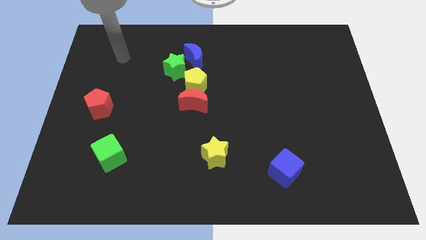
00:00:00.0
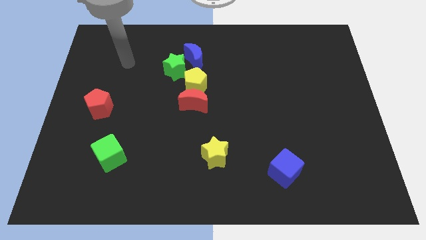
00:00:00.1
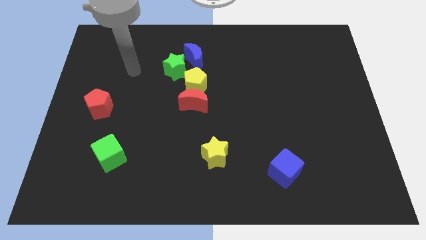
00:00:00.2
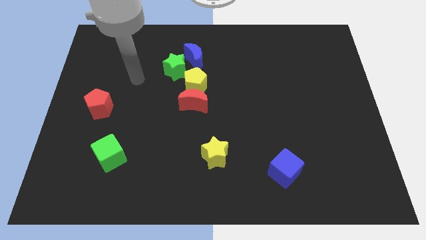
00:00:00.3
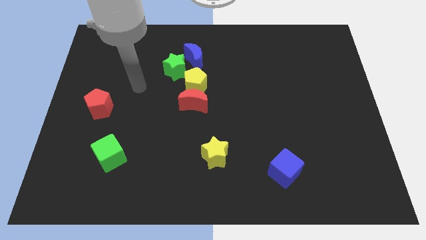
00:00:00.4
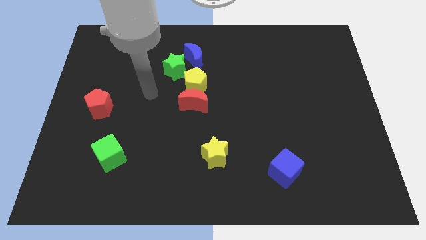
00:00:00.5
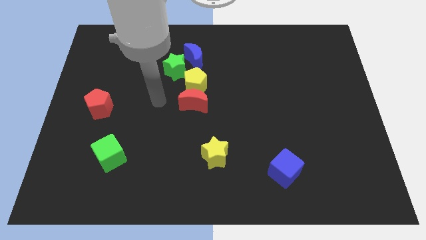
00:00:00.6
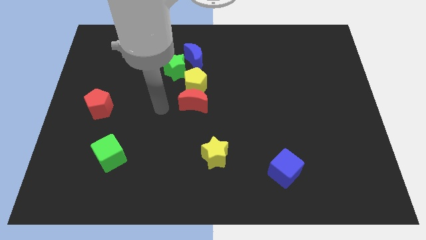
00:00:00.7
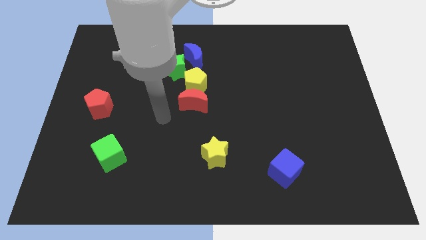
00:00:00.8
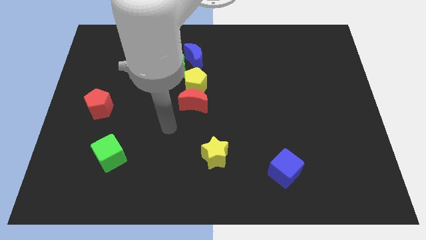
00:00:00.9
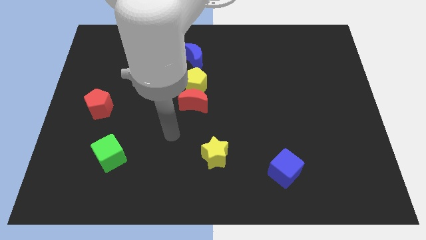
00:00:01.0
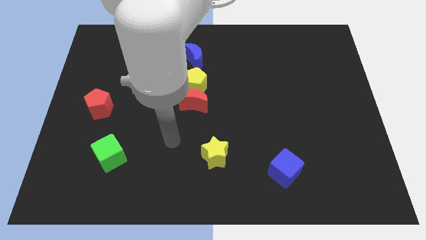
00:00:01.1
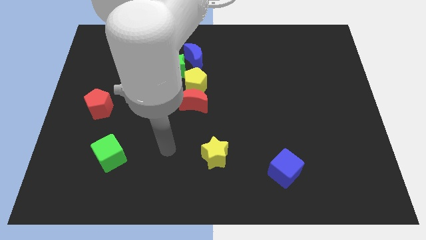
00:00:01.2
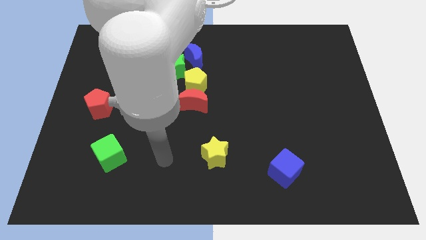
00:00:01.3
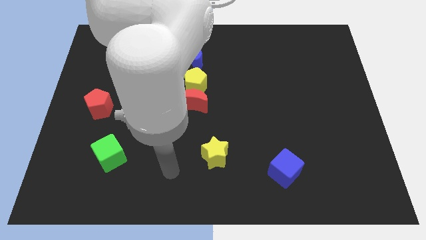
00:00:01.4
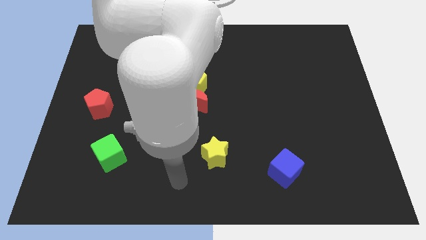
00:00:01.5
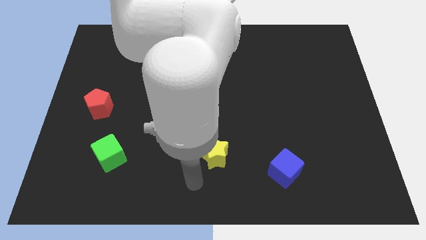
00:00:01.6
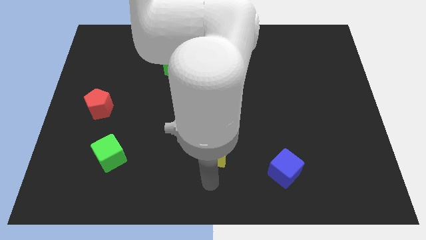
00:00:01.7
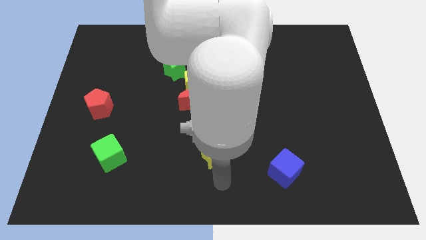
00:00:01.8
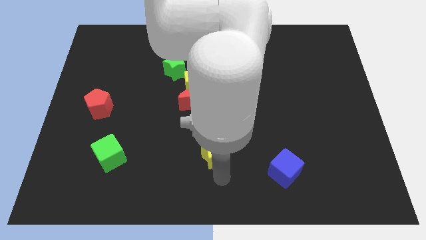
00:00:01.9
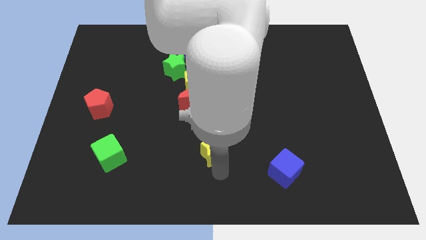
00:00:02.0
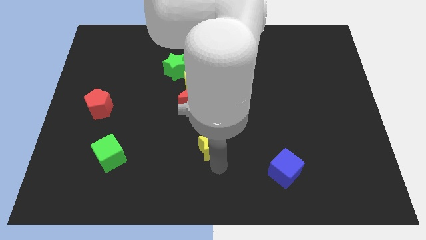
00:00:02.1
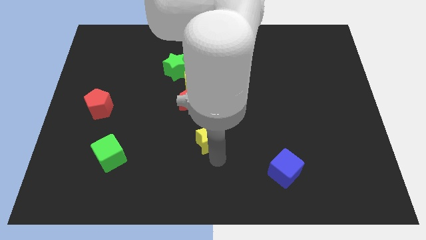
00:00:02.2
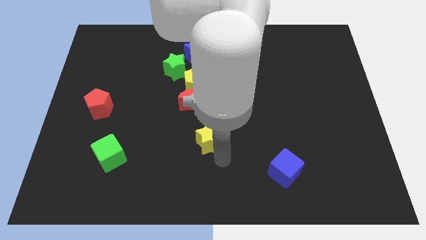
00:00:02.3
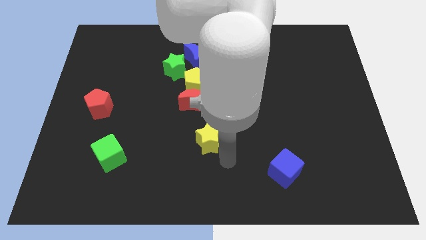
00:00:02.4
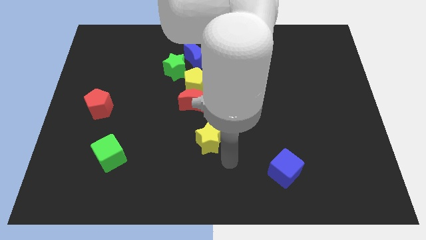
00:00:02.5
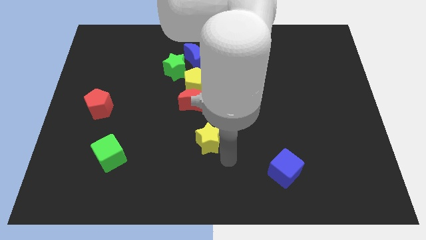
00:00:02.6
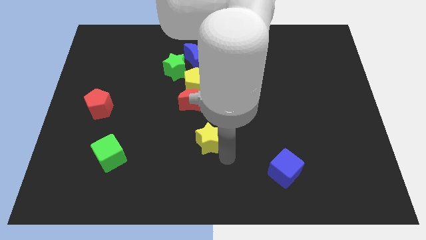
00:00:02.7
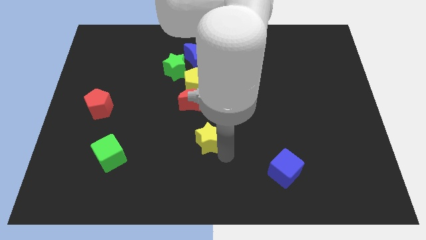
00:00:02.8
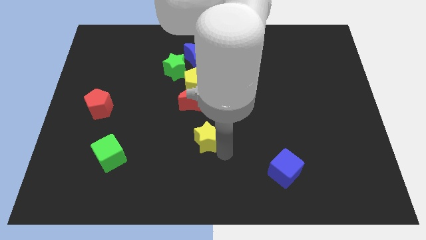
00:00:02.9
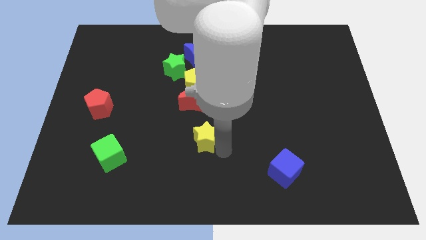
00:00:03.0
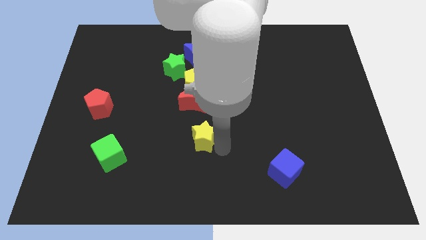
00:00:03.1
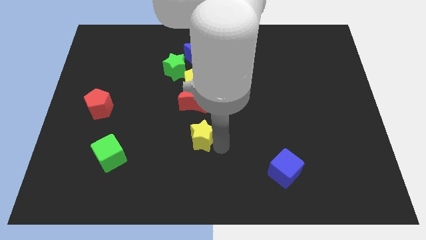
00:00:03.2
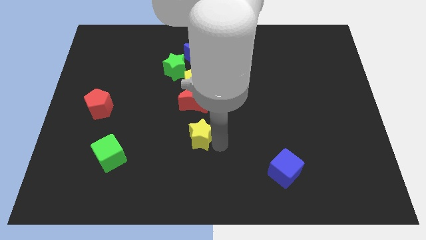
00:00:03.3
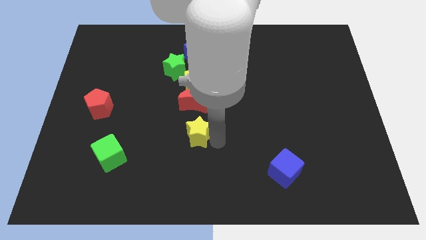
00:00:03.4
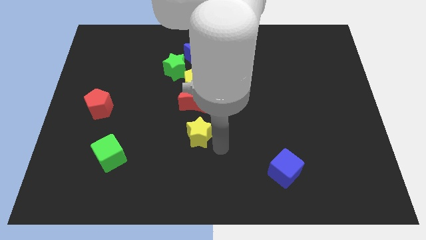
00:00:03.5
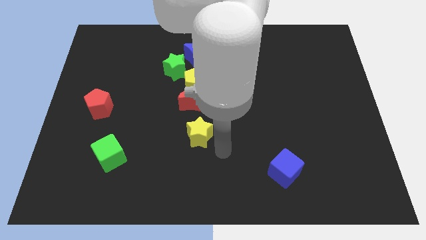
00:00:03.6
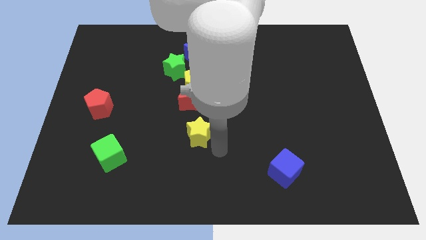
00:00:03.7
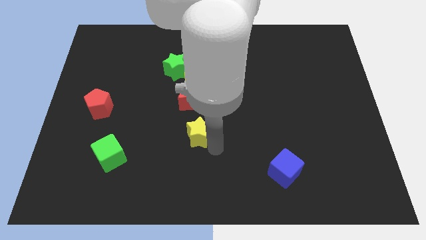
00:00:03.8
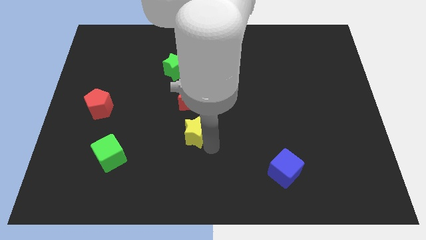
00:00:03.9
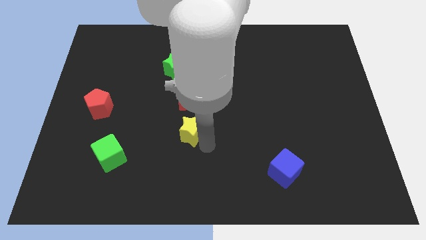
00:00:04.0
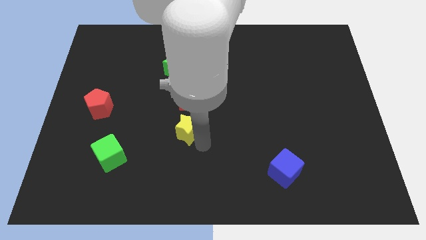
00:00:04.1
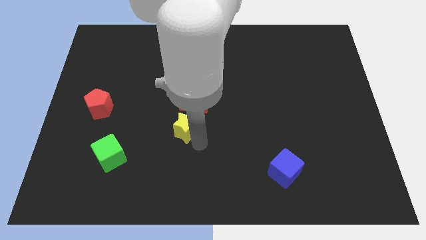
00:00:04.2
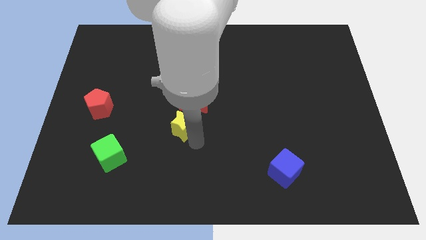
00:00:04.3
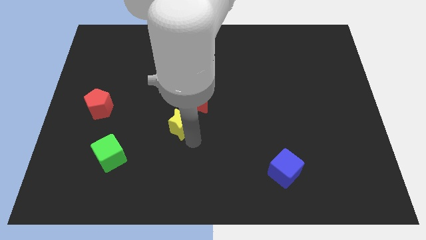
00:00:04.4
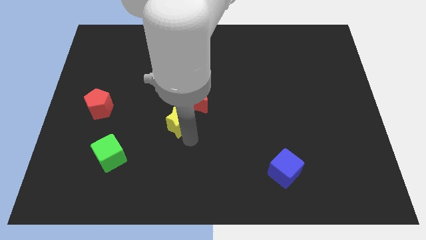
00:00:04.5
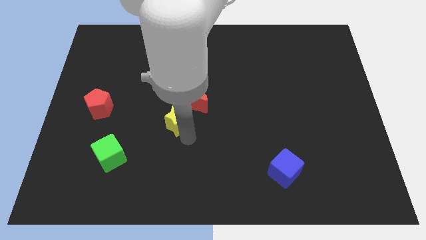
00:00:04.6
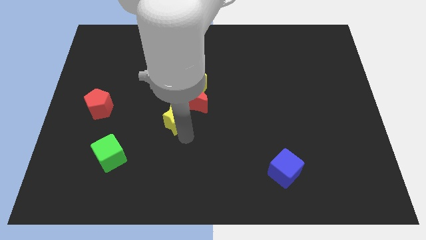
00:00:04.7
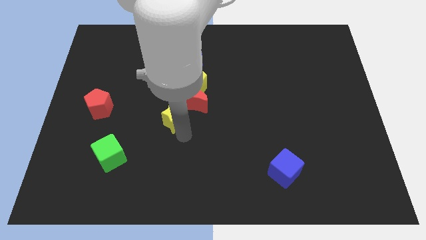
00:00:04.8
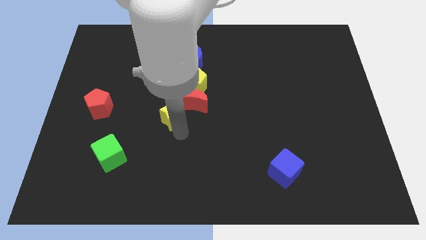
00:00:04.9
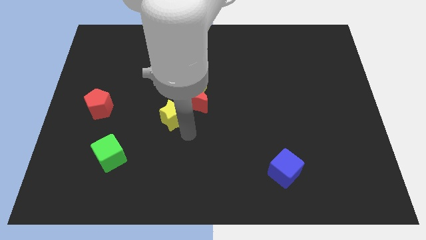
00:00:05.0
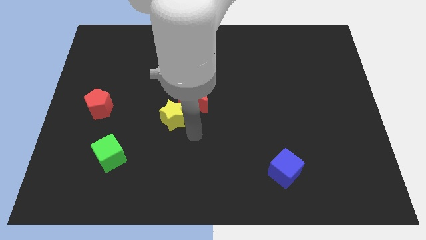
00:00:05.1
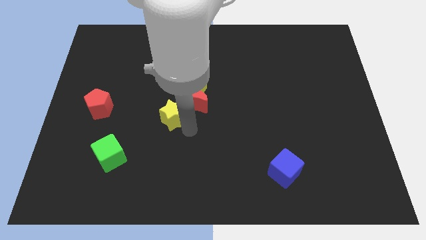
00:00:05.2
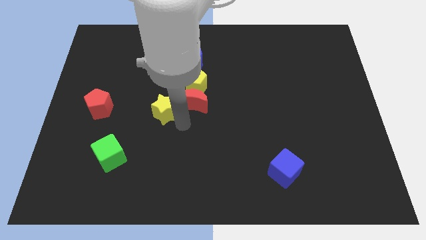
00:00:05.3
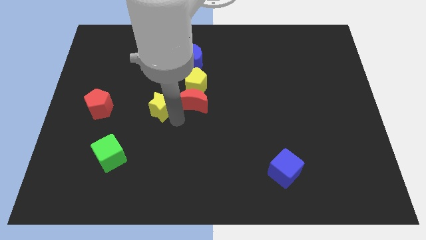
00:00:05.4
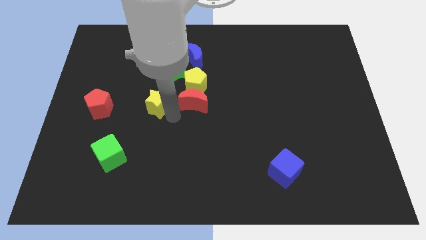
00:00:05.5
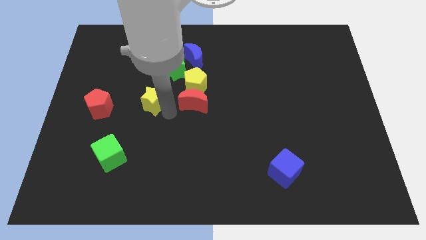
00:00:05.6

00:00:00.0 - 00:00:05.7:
slide the yellow star upwards and to the left diagonally

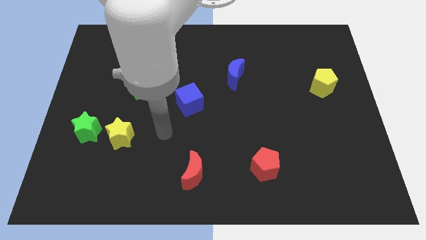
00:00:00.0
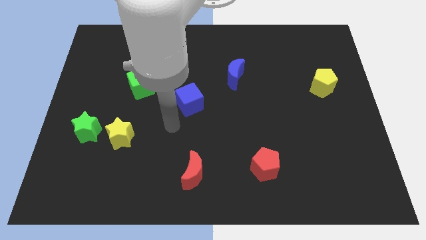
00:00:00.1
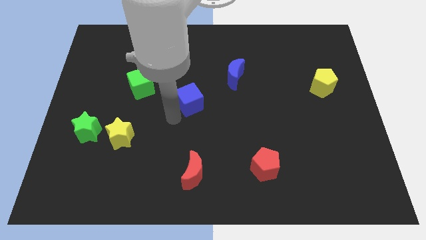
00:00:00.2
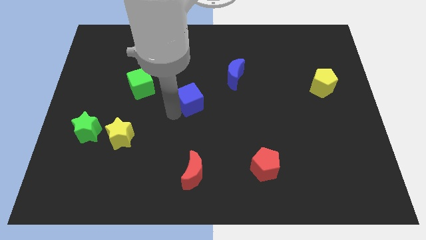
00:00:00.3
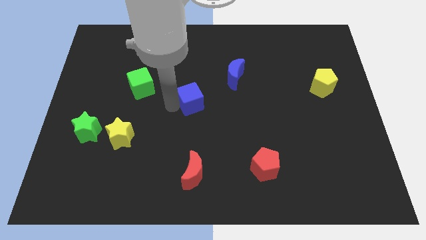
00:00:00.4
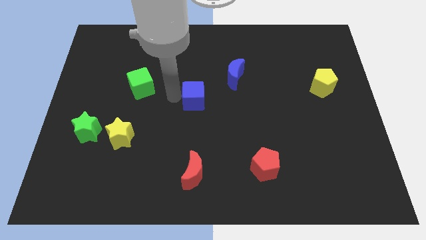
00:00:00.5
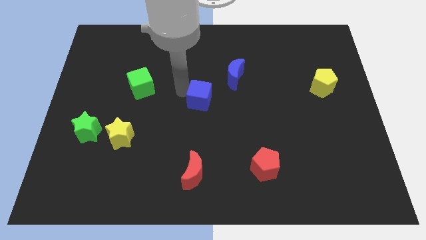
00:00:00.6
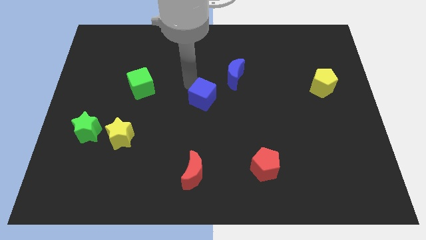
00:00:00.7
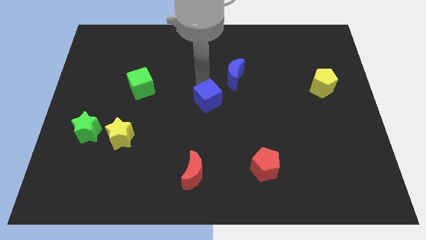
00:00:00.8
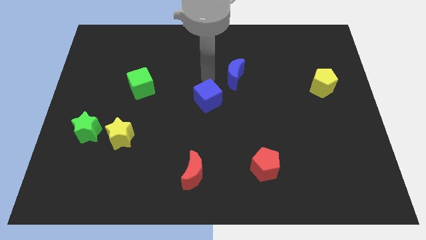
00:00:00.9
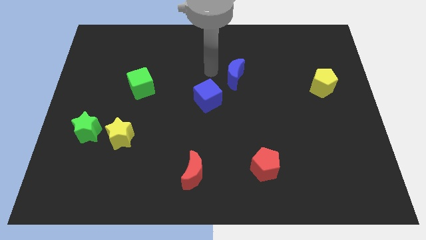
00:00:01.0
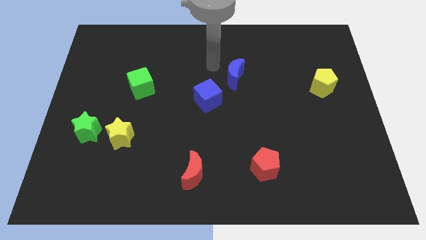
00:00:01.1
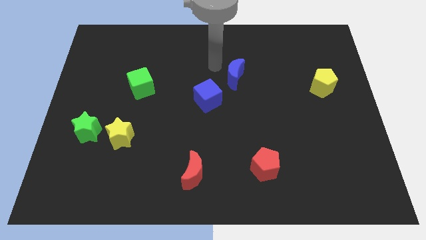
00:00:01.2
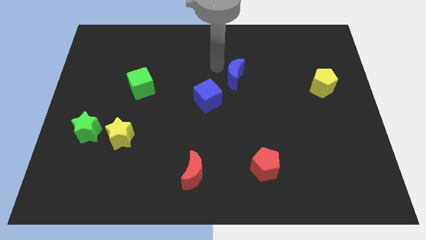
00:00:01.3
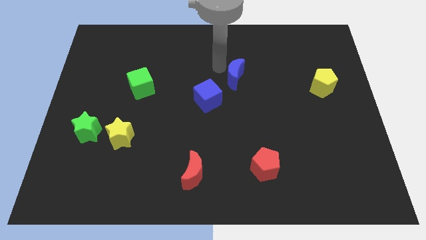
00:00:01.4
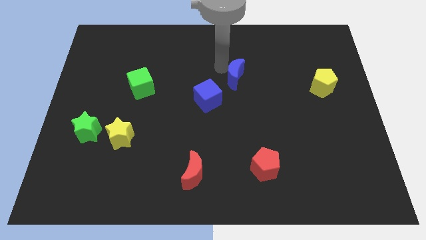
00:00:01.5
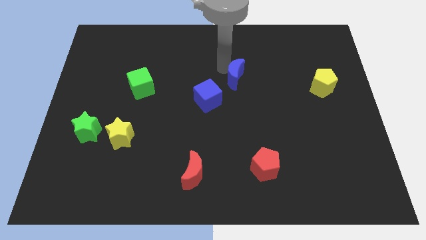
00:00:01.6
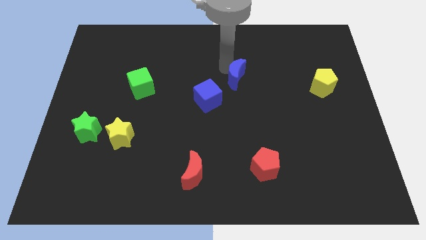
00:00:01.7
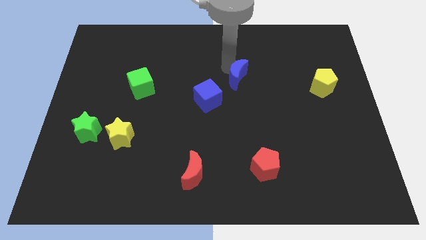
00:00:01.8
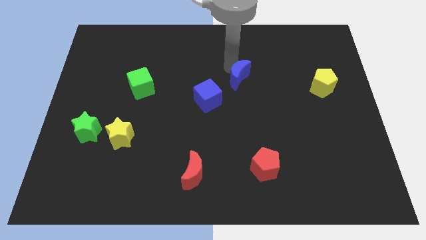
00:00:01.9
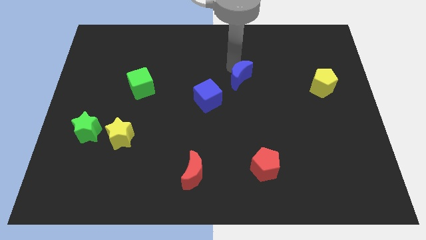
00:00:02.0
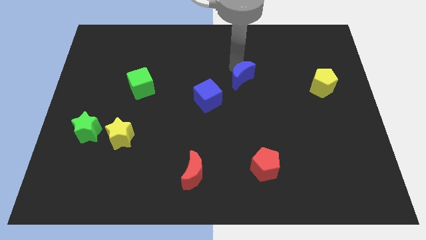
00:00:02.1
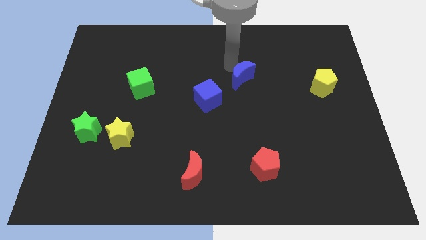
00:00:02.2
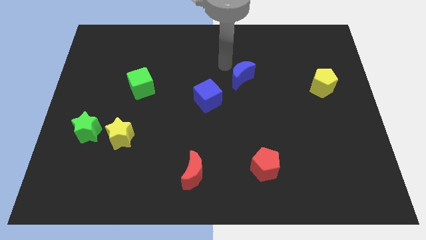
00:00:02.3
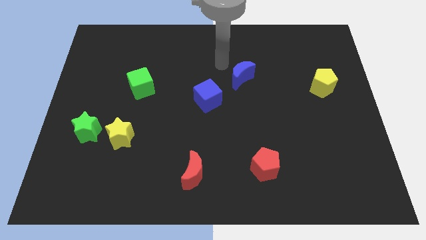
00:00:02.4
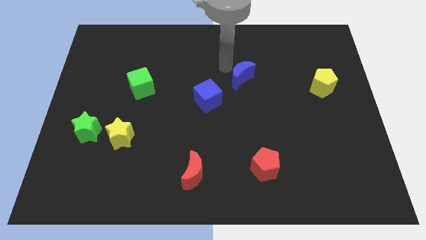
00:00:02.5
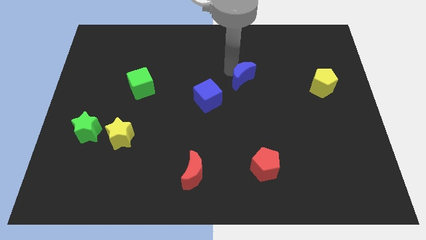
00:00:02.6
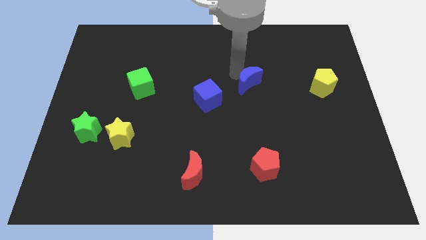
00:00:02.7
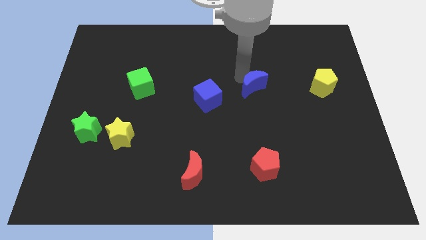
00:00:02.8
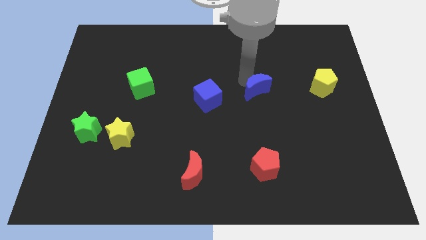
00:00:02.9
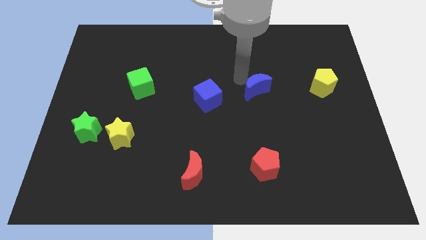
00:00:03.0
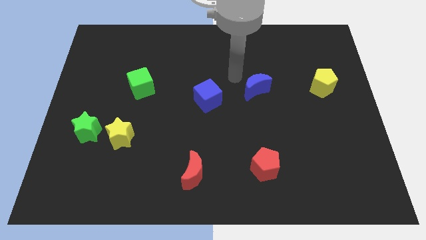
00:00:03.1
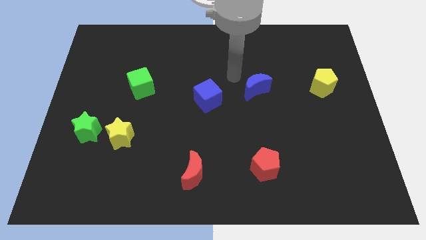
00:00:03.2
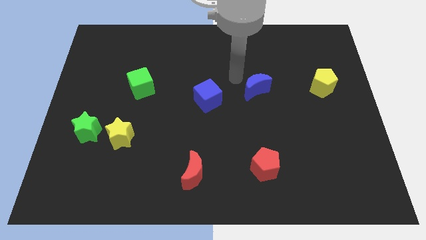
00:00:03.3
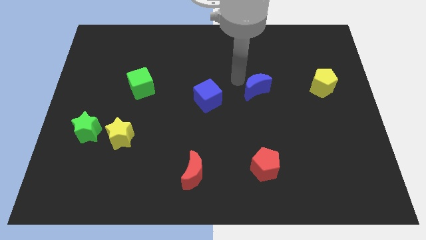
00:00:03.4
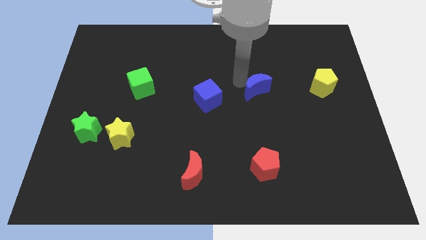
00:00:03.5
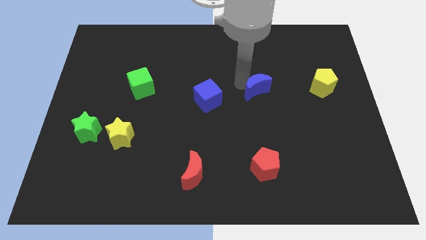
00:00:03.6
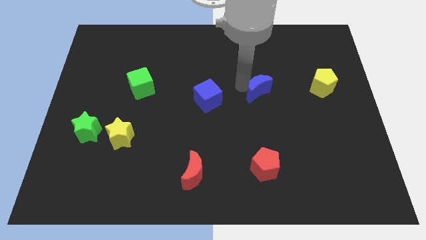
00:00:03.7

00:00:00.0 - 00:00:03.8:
slide the blue moon downwards and to the right a little bit
